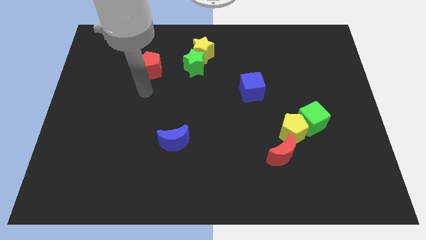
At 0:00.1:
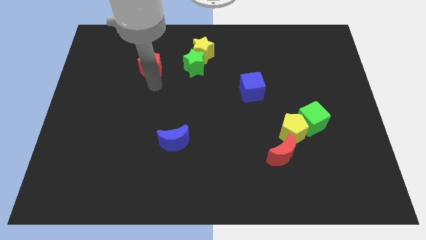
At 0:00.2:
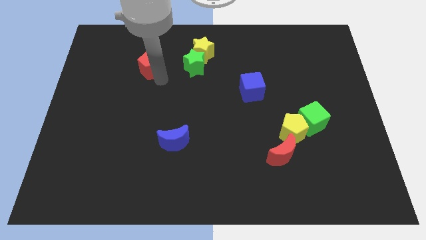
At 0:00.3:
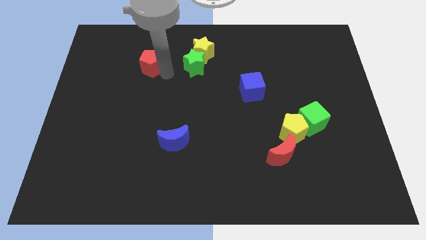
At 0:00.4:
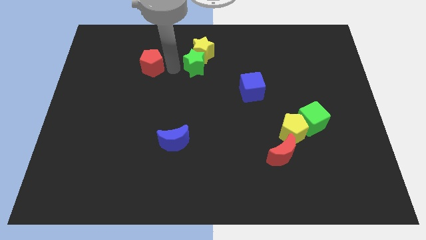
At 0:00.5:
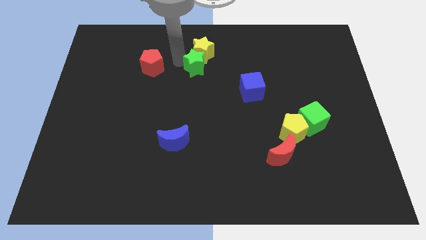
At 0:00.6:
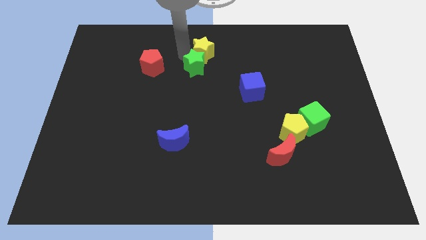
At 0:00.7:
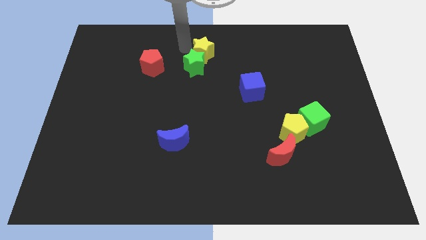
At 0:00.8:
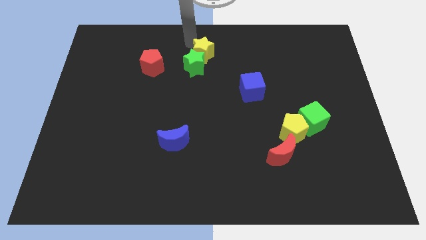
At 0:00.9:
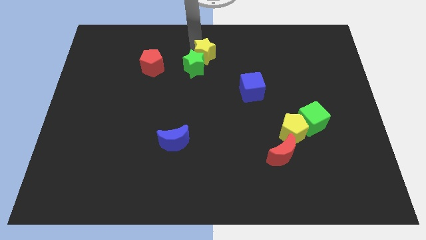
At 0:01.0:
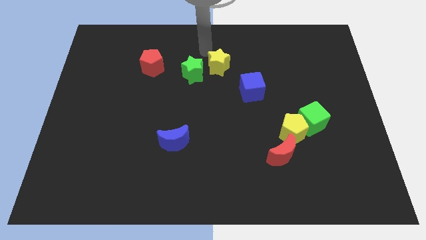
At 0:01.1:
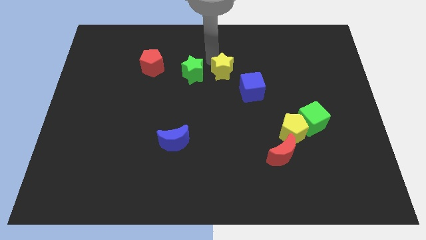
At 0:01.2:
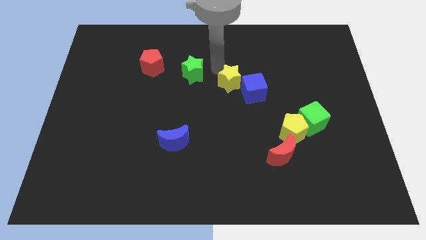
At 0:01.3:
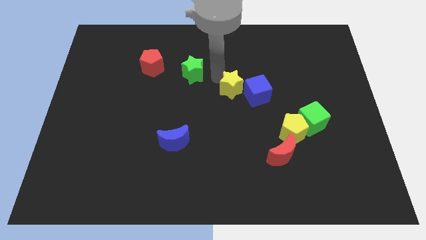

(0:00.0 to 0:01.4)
separate the green star from the yellow star

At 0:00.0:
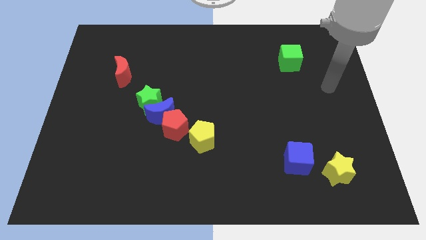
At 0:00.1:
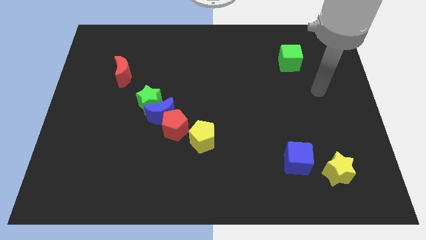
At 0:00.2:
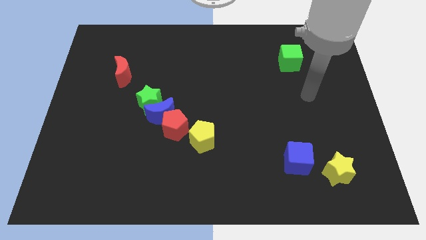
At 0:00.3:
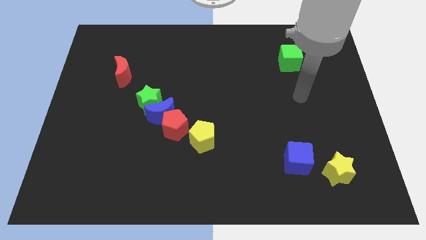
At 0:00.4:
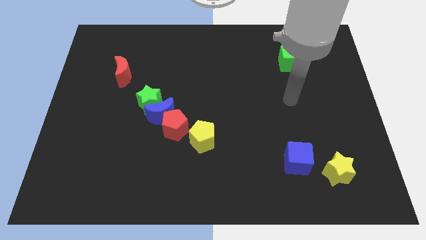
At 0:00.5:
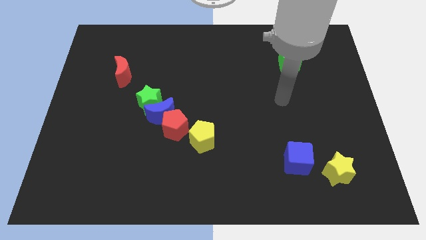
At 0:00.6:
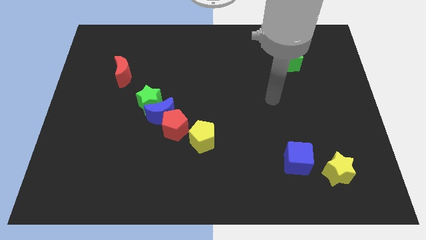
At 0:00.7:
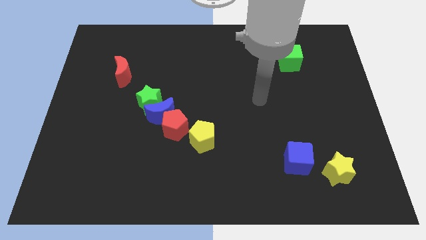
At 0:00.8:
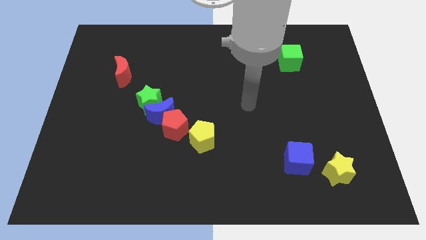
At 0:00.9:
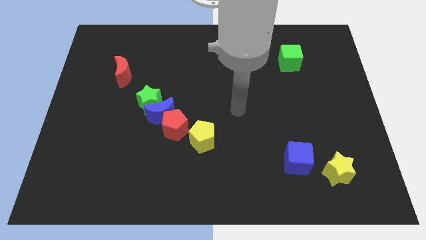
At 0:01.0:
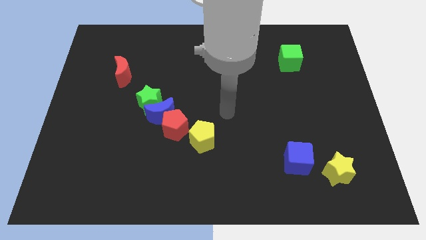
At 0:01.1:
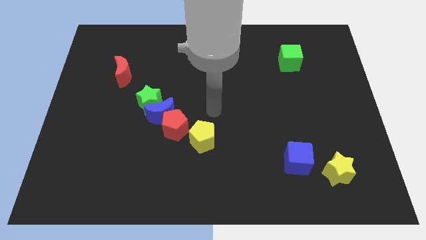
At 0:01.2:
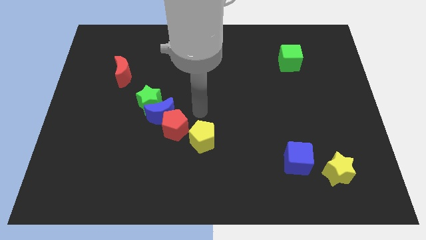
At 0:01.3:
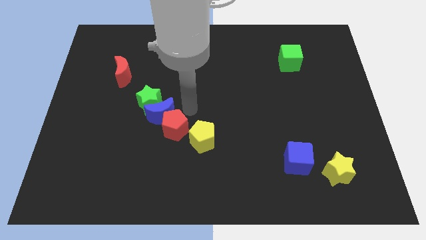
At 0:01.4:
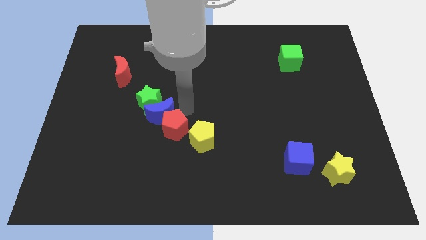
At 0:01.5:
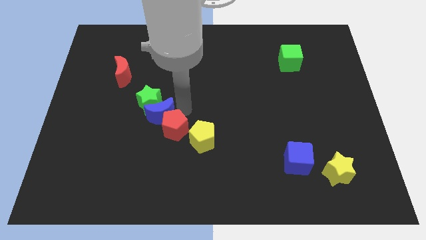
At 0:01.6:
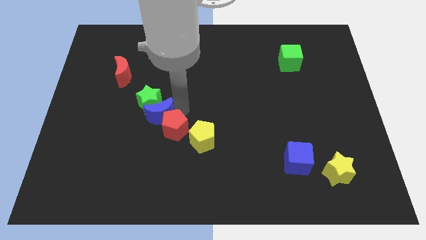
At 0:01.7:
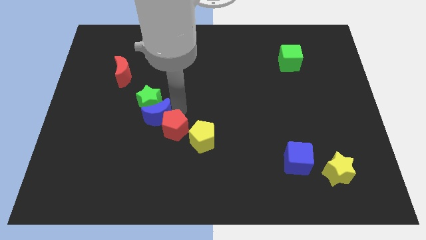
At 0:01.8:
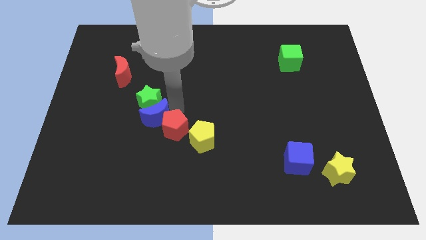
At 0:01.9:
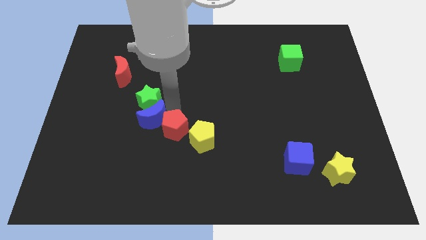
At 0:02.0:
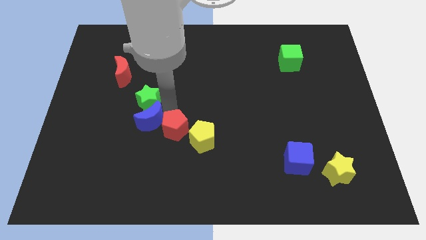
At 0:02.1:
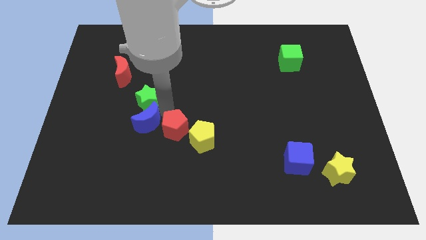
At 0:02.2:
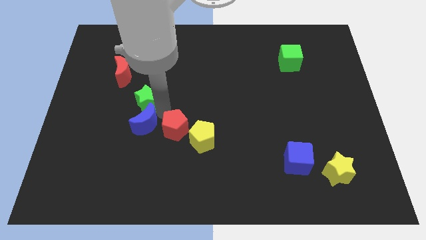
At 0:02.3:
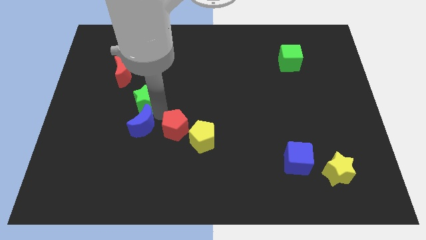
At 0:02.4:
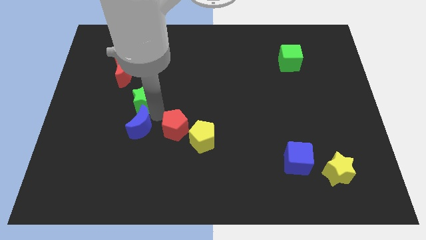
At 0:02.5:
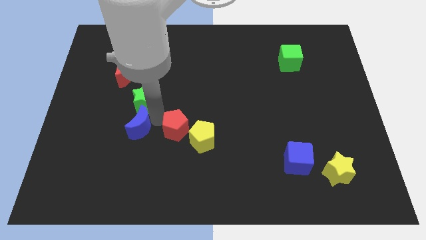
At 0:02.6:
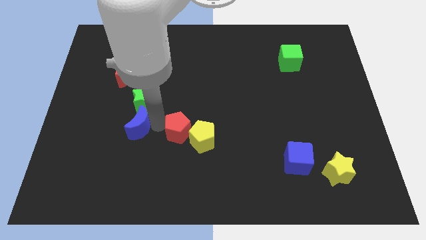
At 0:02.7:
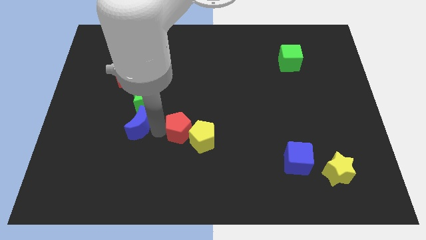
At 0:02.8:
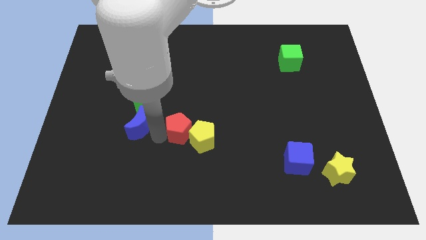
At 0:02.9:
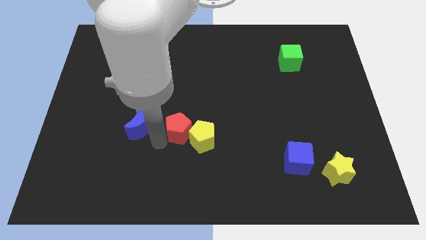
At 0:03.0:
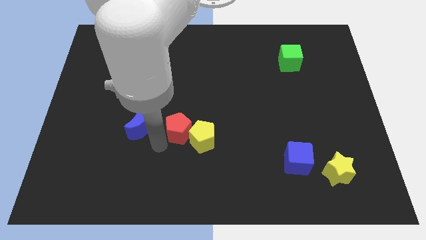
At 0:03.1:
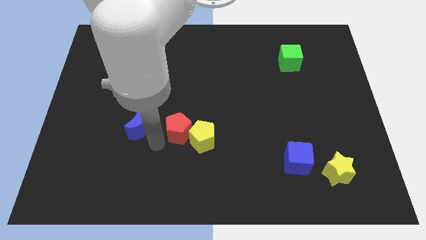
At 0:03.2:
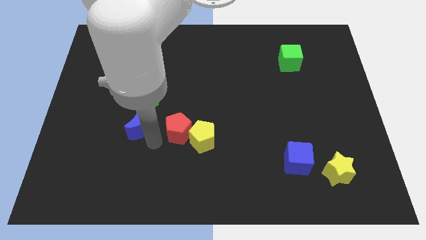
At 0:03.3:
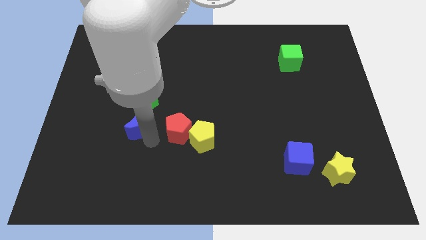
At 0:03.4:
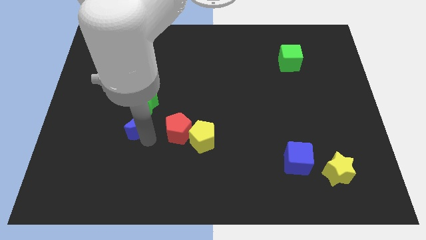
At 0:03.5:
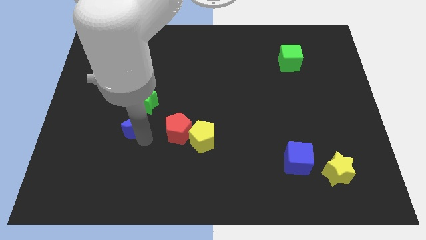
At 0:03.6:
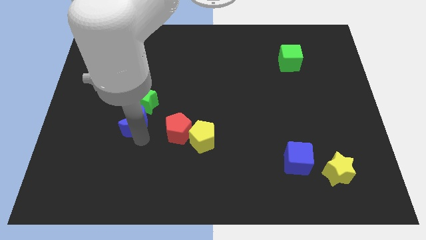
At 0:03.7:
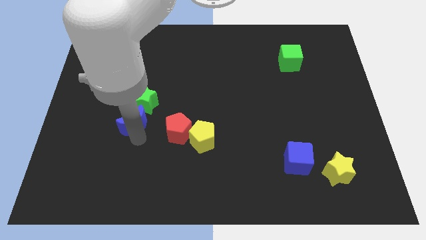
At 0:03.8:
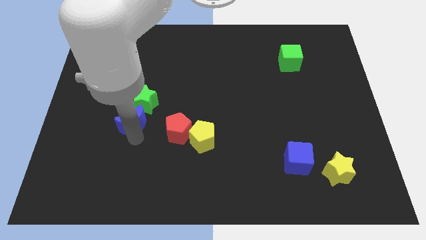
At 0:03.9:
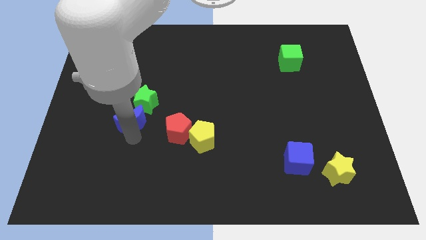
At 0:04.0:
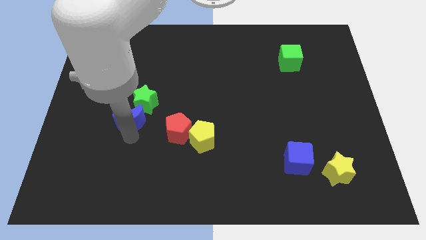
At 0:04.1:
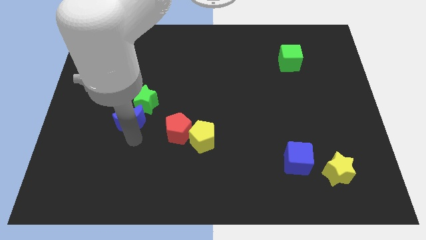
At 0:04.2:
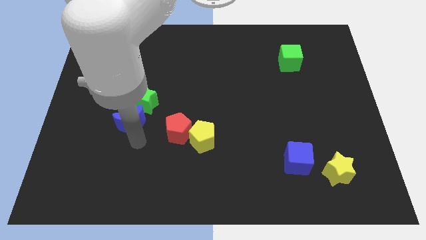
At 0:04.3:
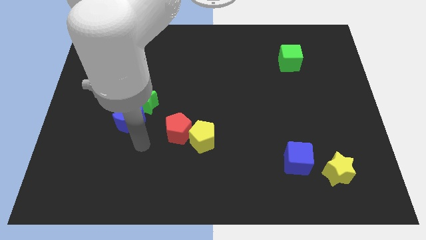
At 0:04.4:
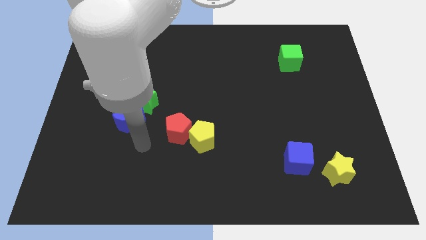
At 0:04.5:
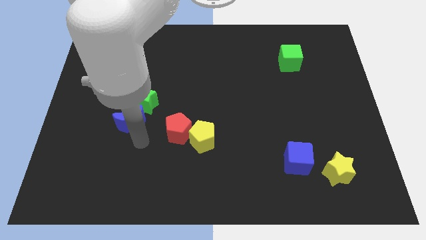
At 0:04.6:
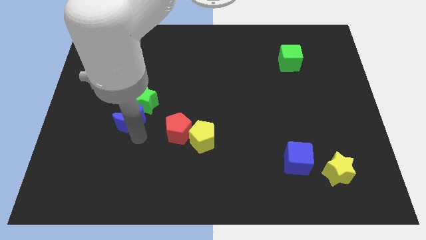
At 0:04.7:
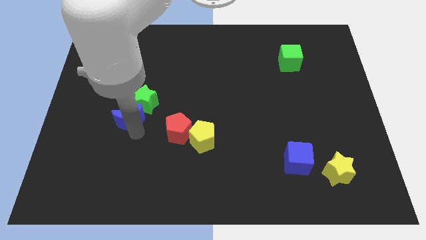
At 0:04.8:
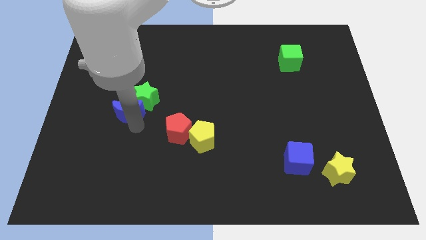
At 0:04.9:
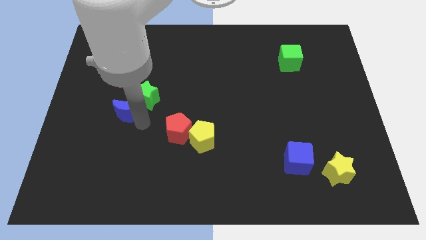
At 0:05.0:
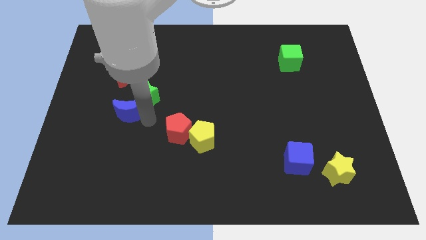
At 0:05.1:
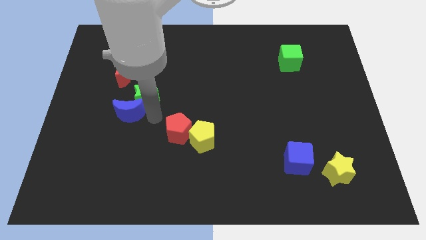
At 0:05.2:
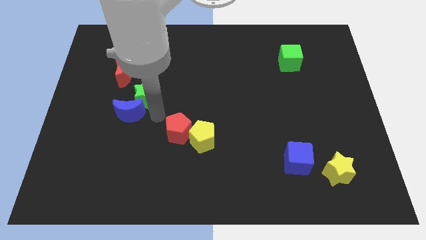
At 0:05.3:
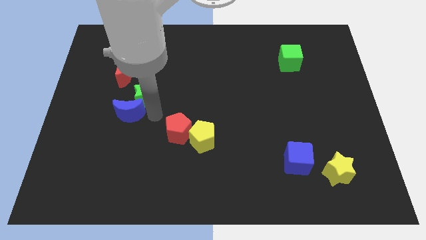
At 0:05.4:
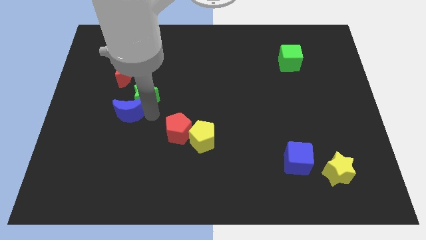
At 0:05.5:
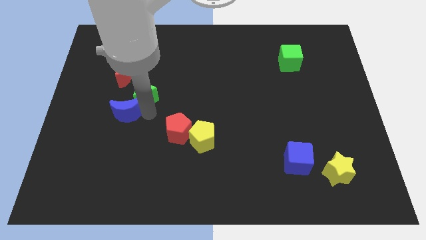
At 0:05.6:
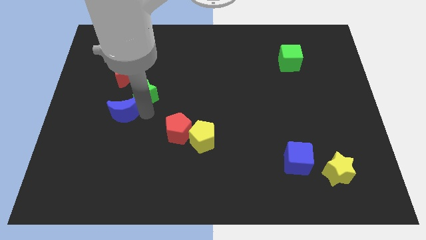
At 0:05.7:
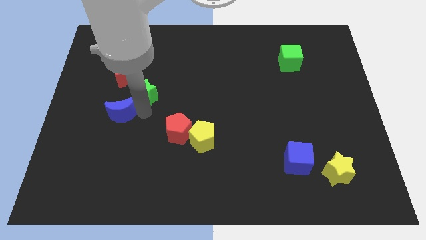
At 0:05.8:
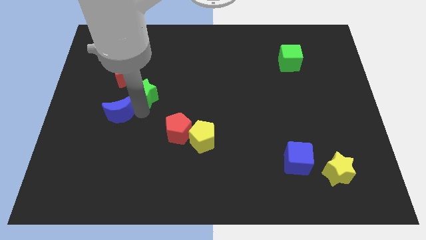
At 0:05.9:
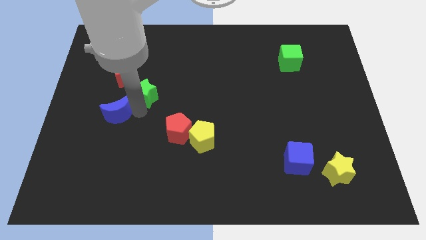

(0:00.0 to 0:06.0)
separate the blue moon from the green star and red pentagon

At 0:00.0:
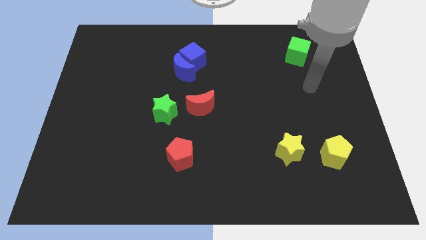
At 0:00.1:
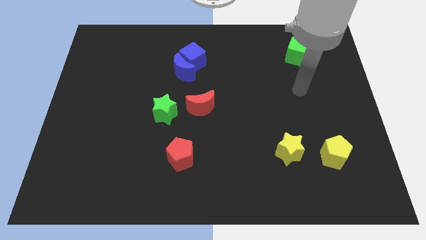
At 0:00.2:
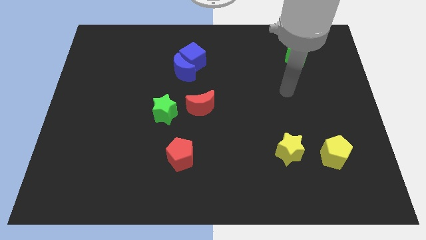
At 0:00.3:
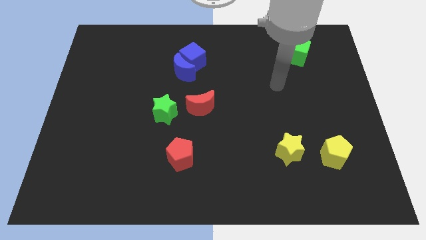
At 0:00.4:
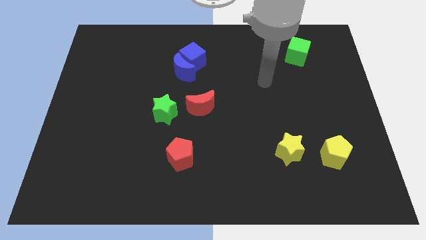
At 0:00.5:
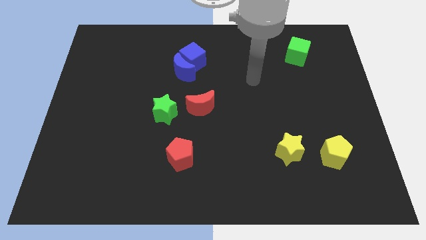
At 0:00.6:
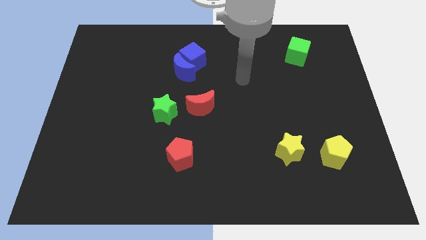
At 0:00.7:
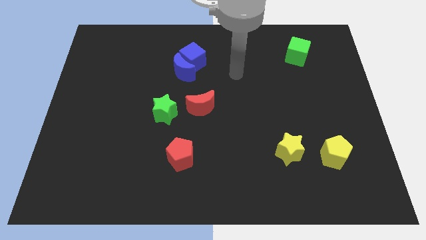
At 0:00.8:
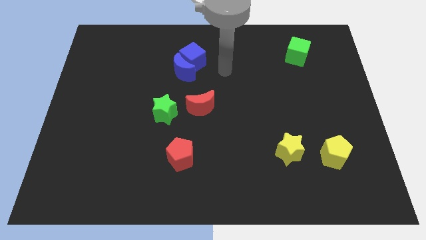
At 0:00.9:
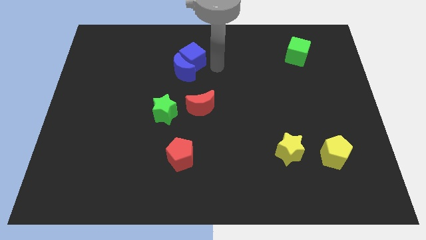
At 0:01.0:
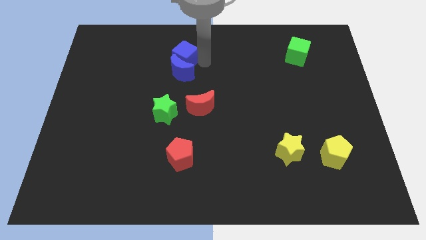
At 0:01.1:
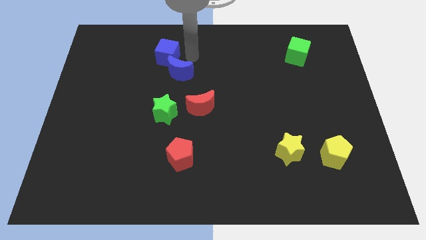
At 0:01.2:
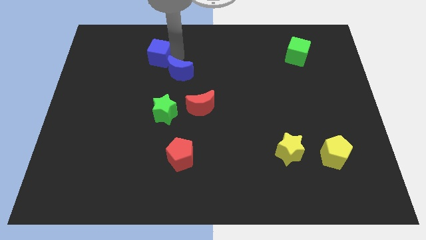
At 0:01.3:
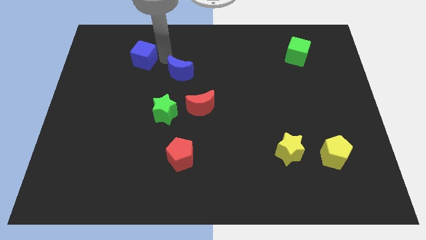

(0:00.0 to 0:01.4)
separate the blue moon from the blue cube

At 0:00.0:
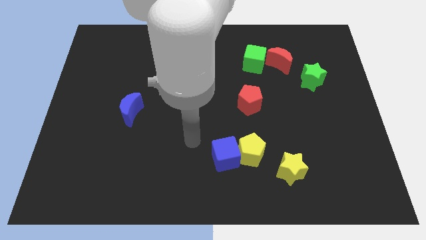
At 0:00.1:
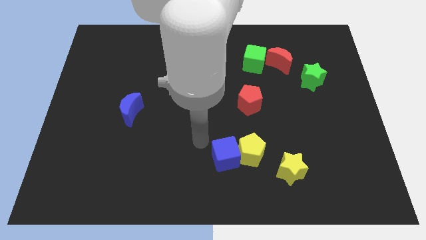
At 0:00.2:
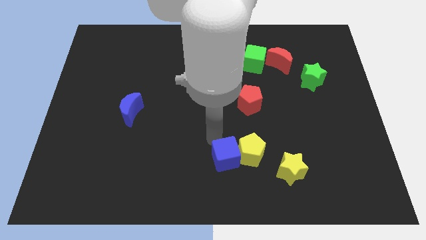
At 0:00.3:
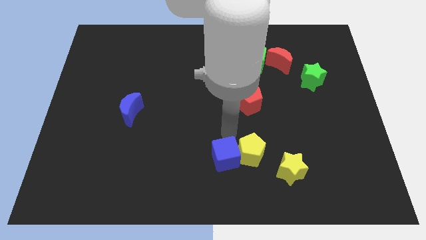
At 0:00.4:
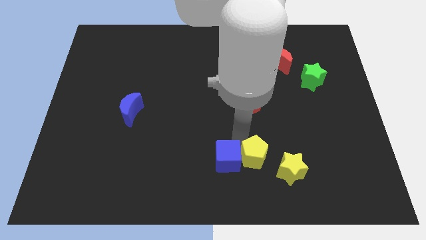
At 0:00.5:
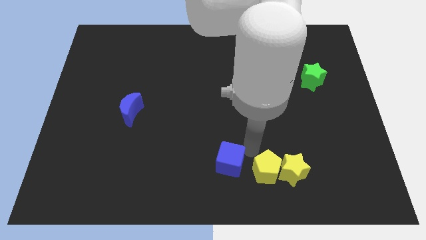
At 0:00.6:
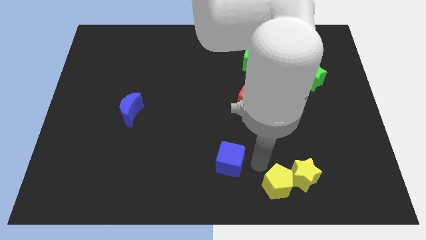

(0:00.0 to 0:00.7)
move the blue cube away from the yellow pentagon
